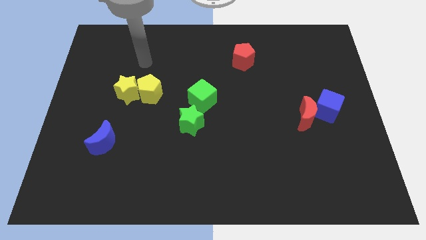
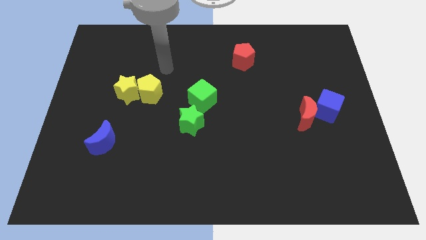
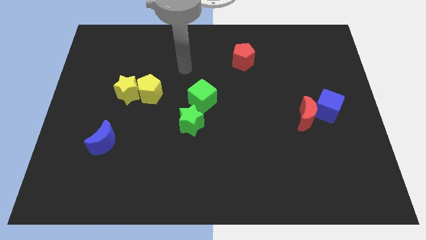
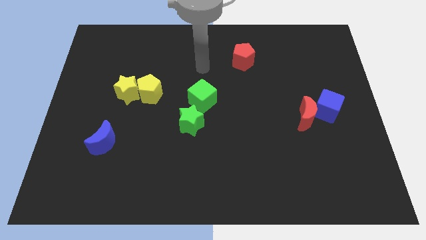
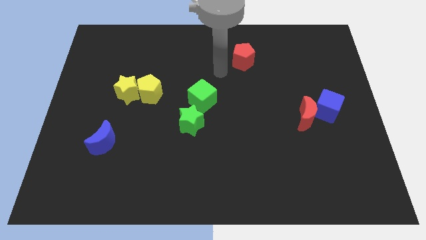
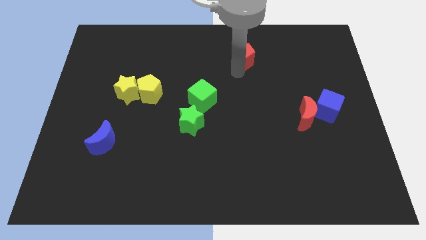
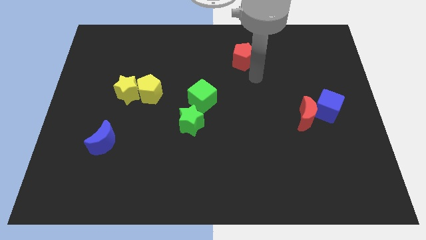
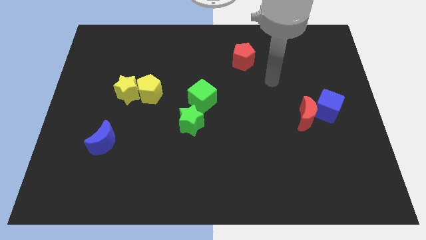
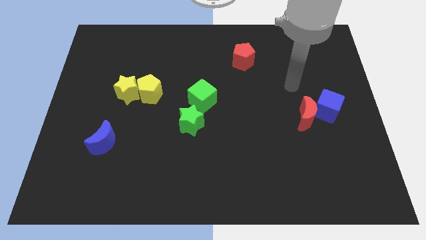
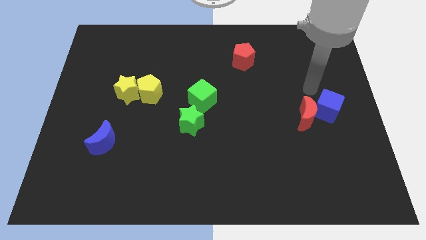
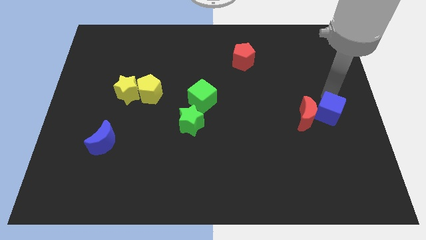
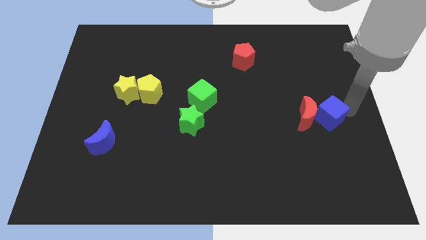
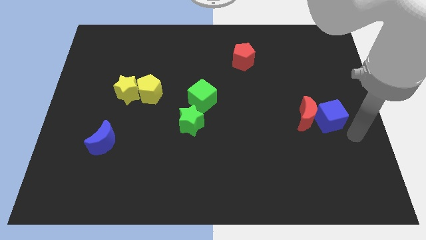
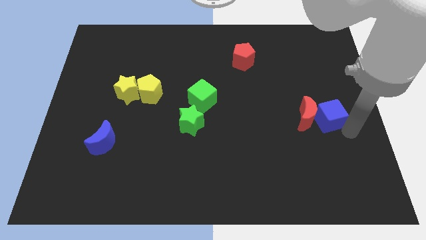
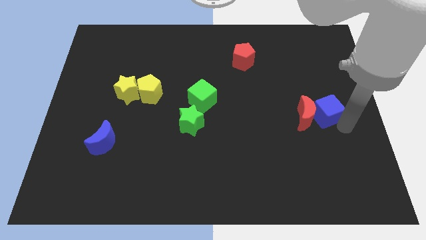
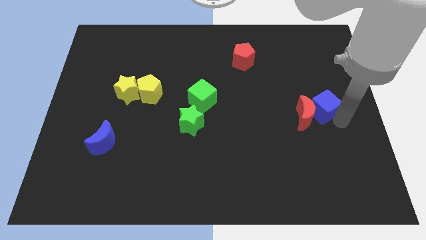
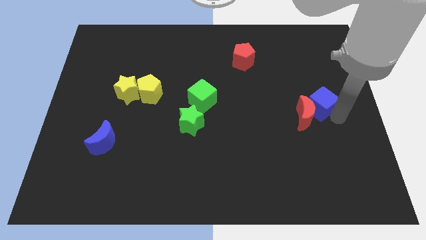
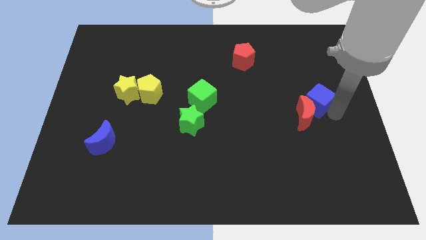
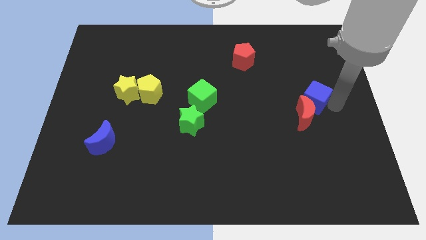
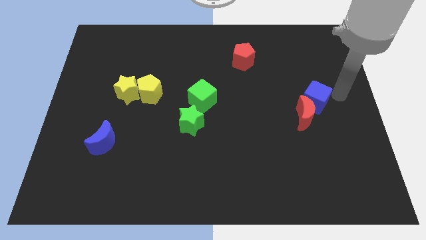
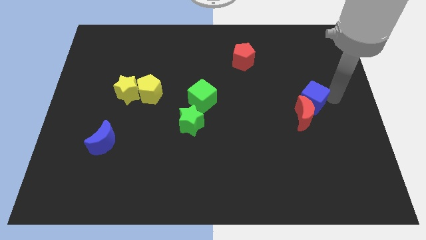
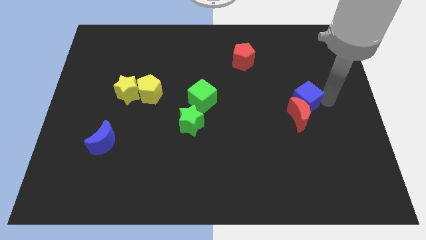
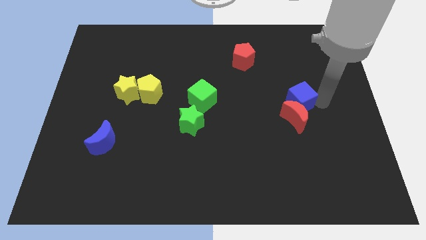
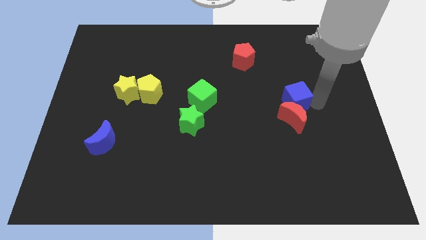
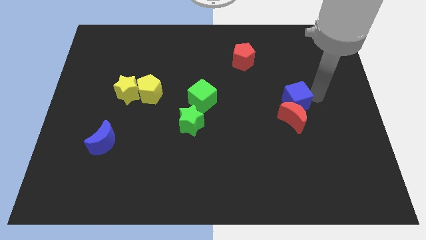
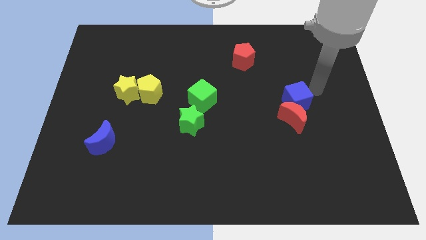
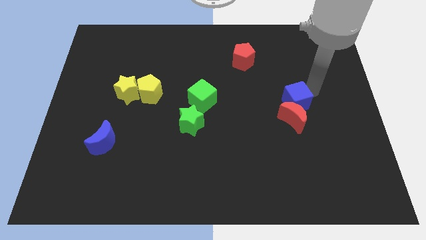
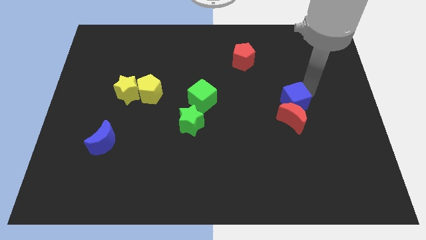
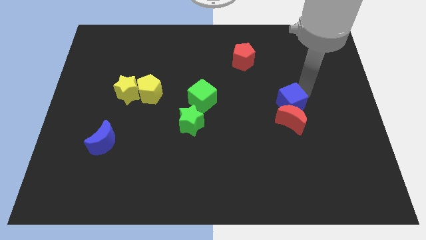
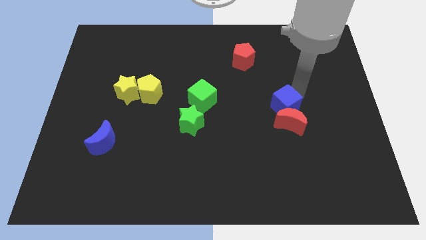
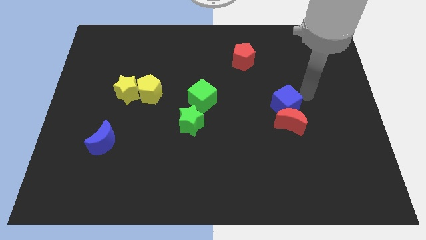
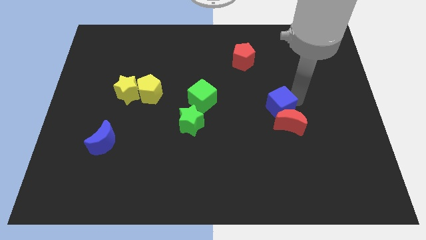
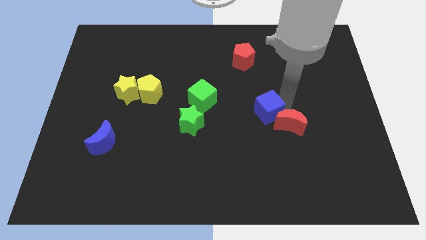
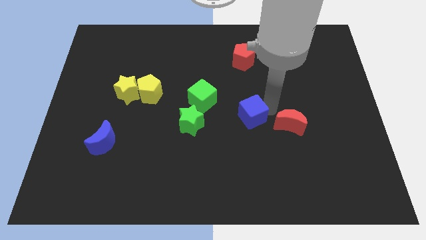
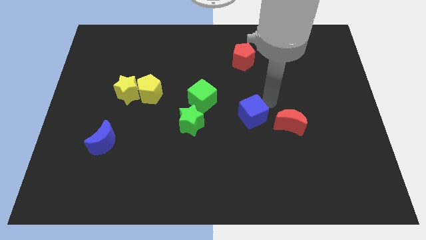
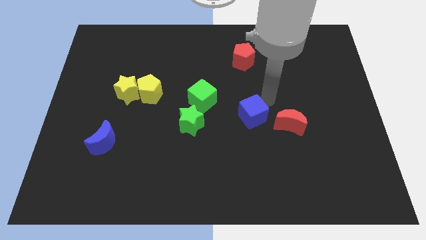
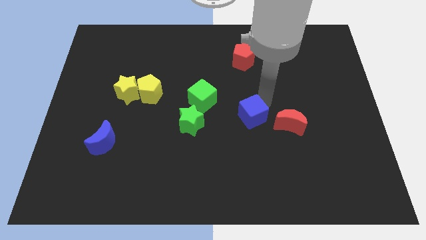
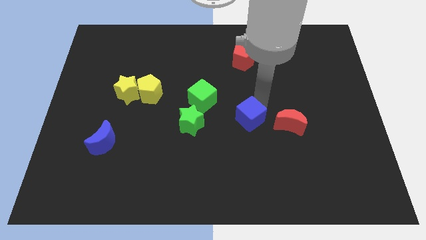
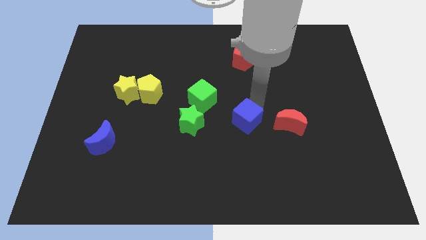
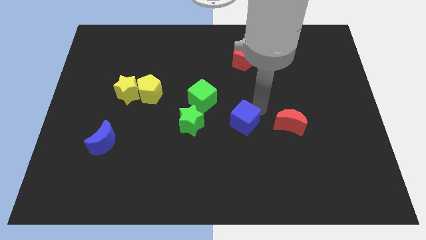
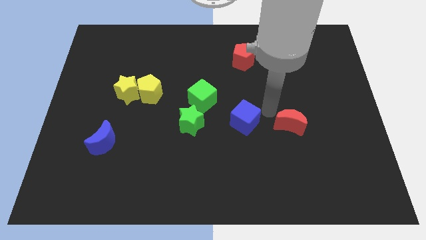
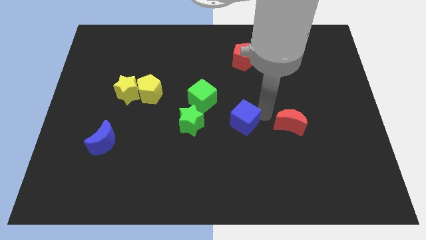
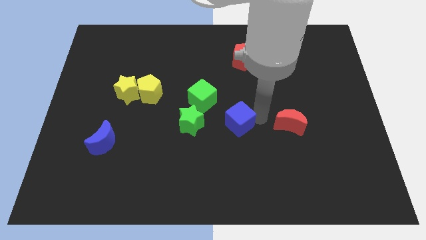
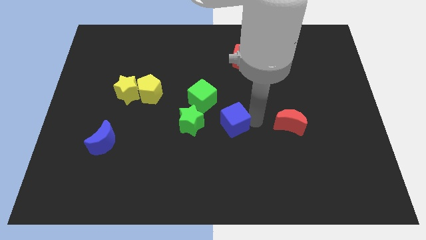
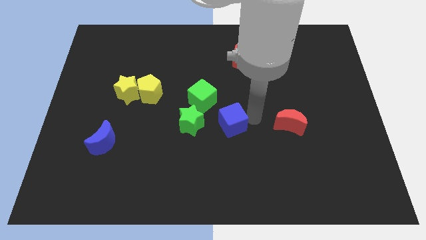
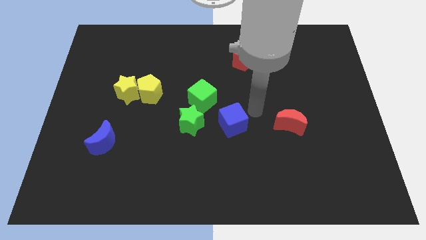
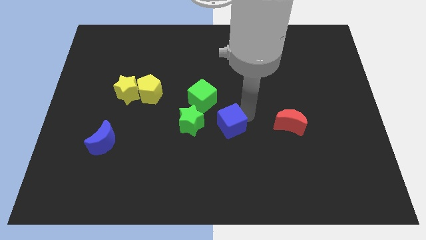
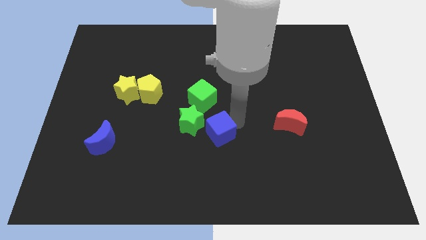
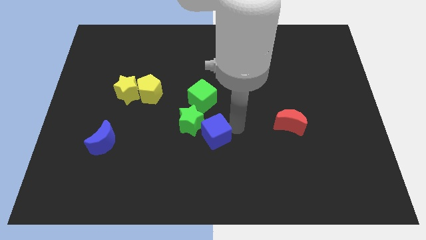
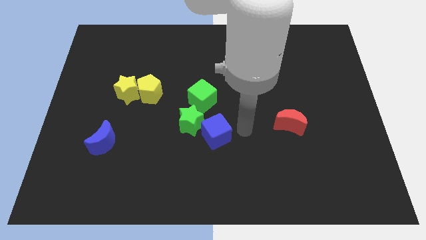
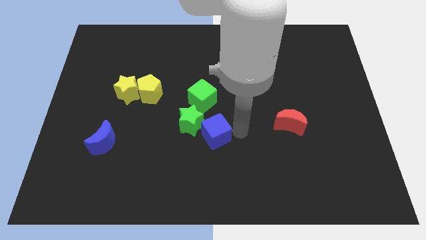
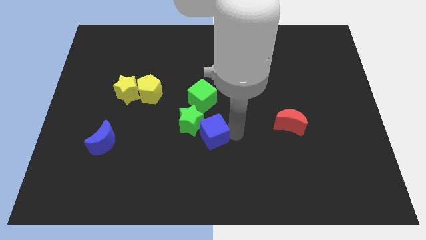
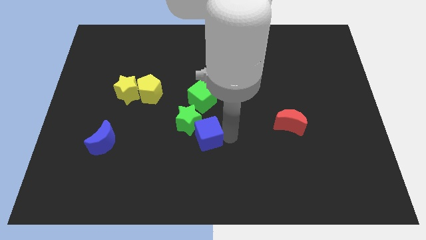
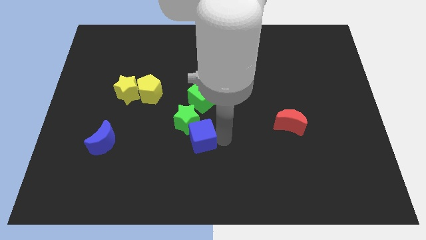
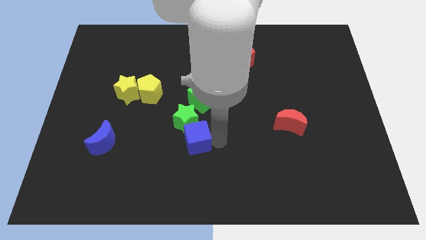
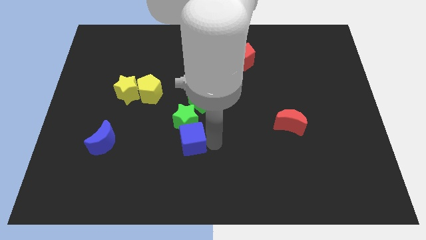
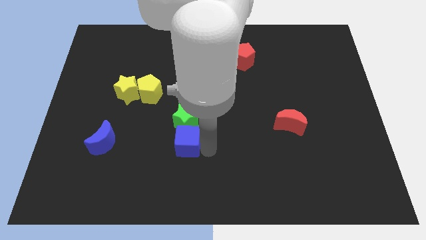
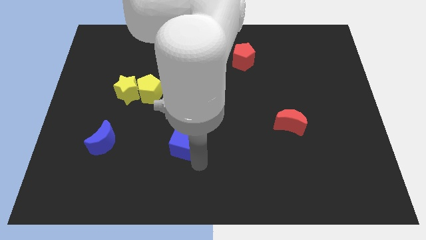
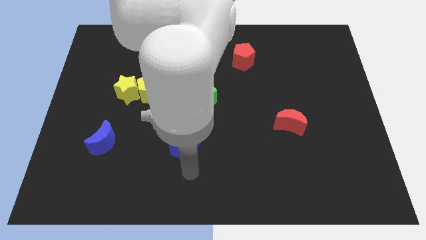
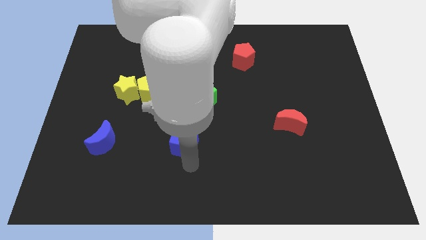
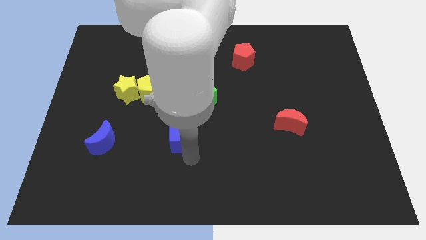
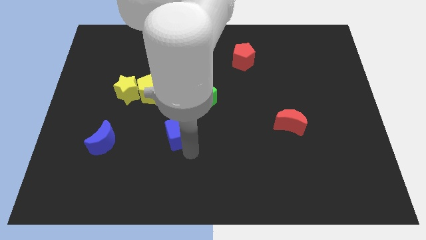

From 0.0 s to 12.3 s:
slide the blue cube to the bottom left side of the green cube

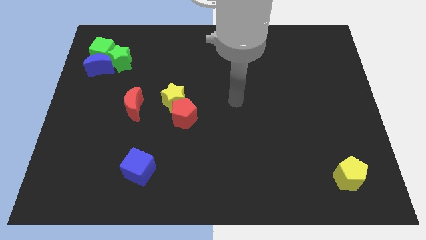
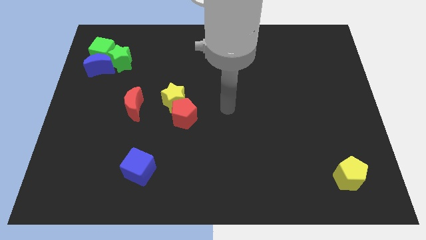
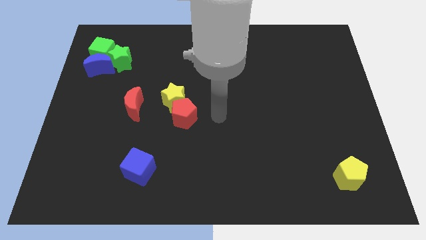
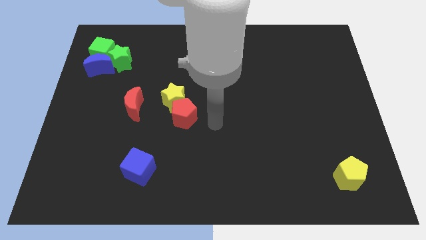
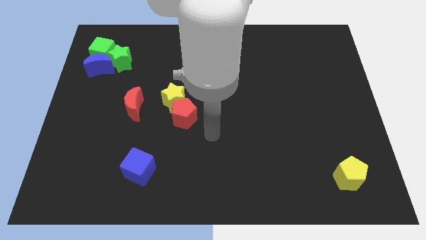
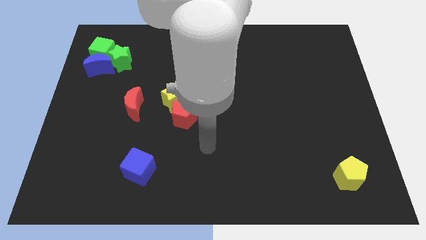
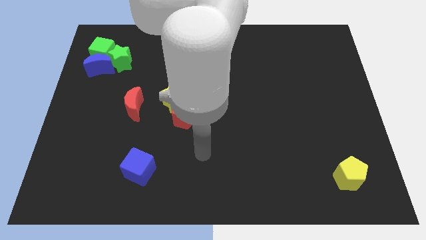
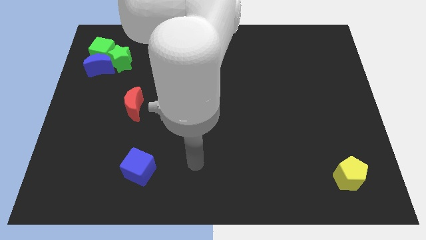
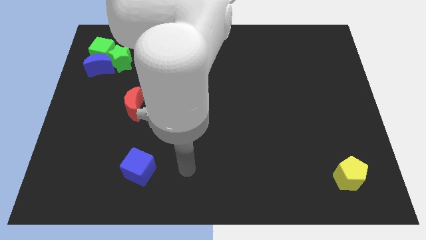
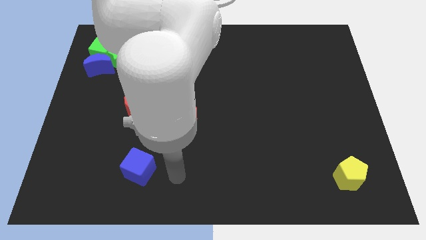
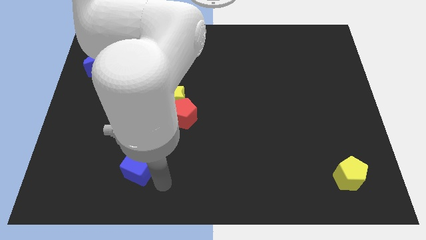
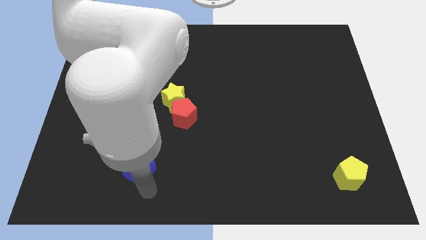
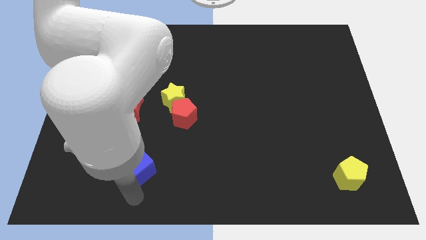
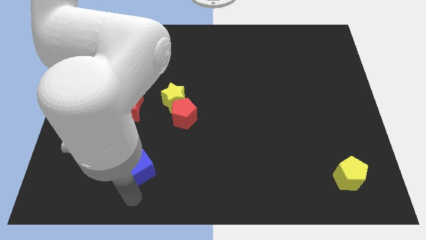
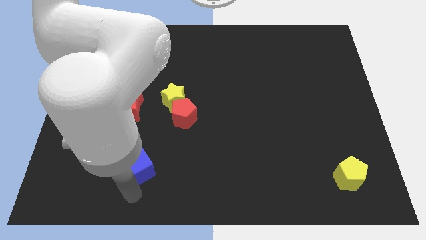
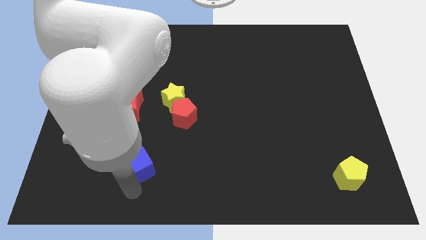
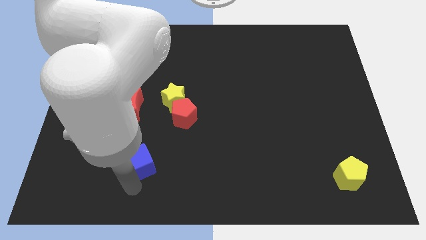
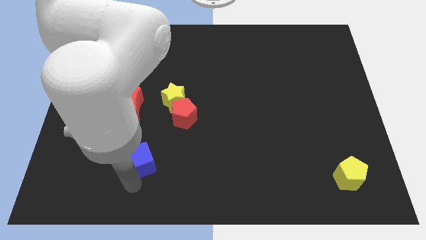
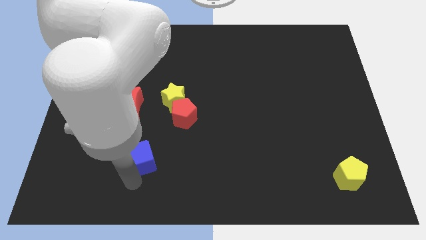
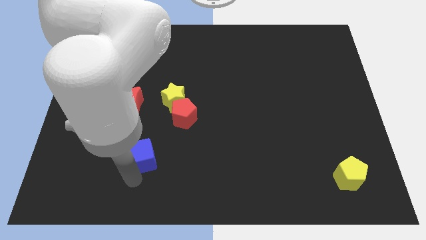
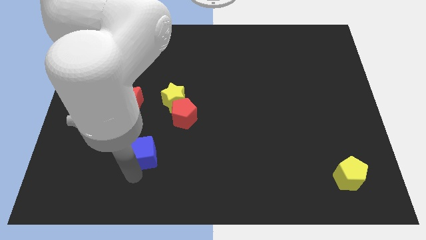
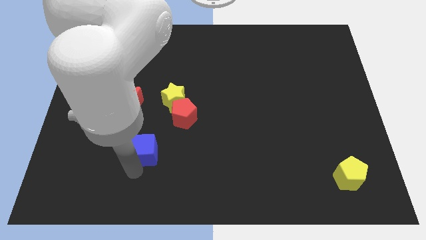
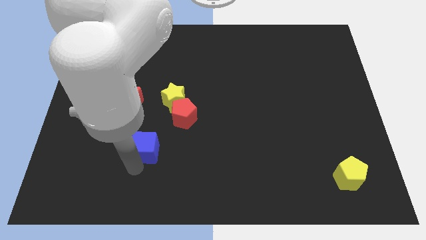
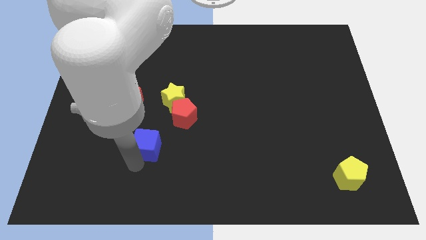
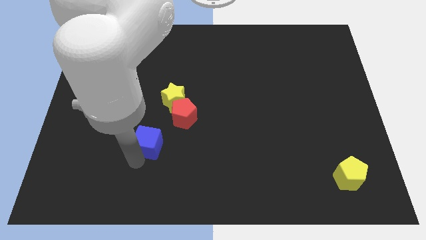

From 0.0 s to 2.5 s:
slide the blue cube diagonally down and to the right of the red moon
